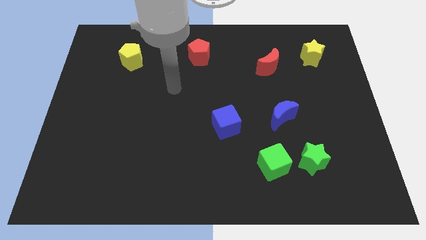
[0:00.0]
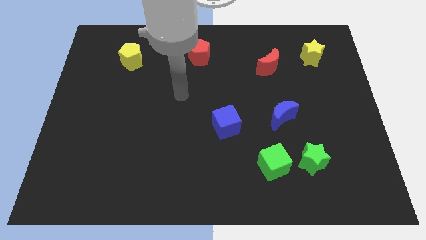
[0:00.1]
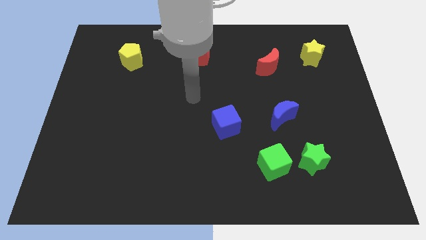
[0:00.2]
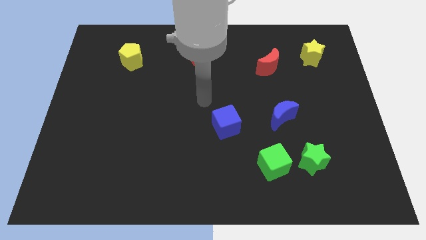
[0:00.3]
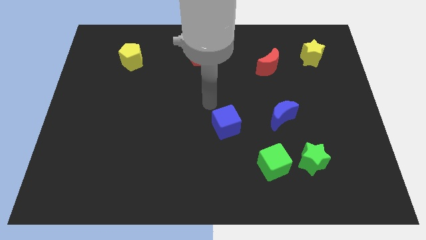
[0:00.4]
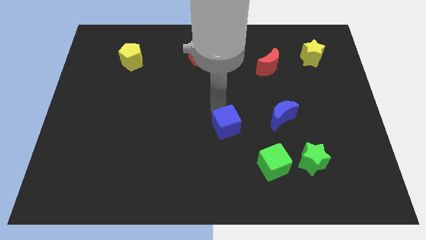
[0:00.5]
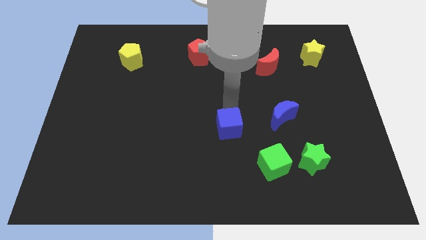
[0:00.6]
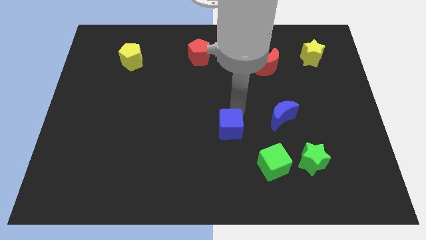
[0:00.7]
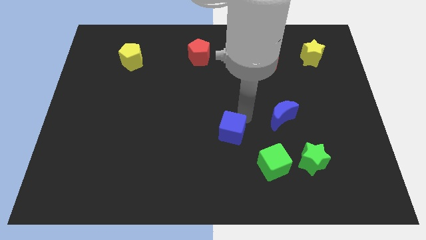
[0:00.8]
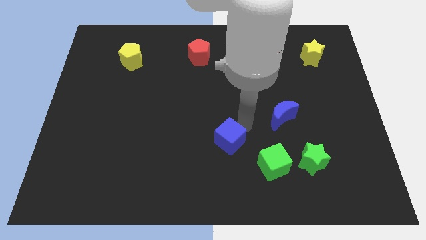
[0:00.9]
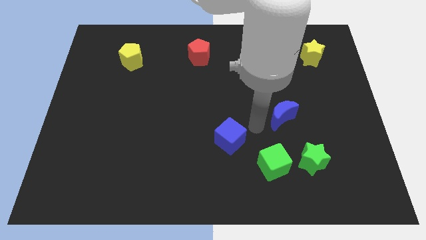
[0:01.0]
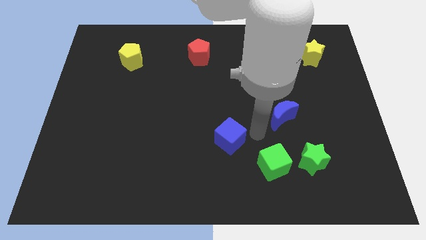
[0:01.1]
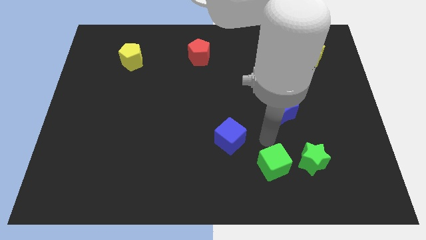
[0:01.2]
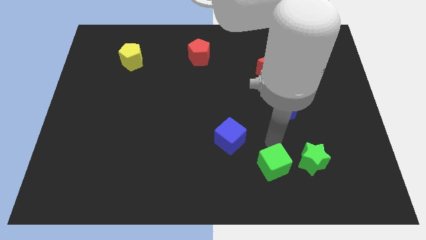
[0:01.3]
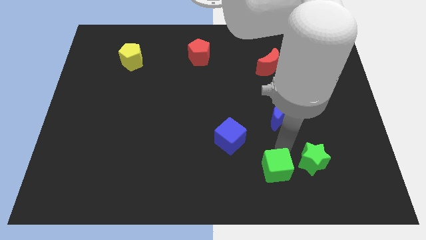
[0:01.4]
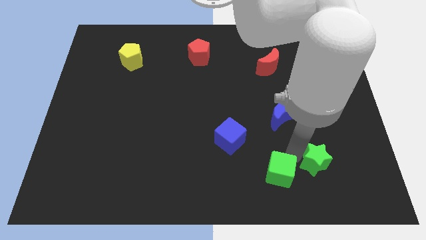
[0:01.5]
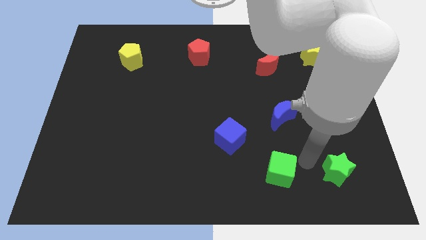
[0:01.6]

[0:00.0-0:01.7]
separate the green cube from the green star

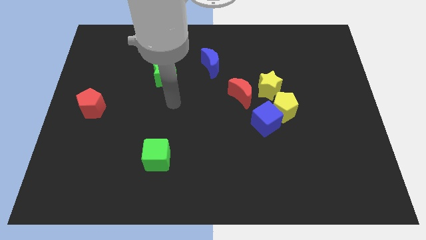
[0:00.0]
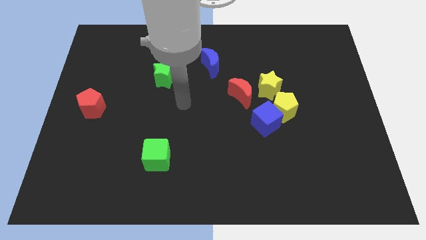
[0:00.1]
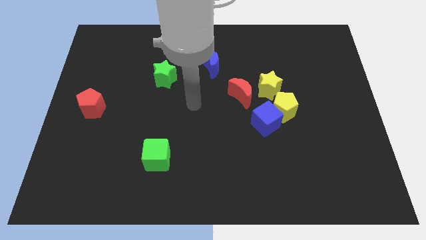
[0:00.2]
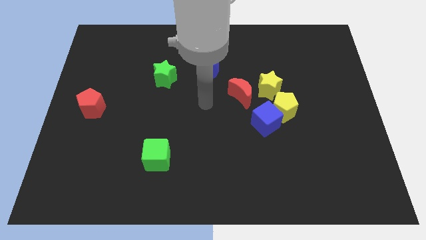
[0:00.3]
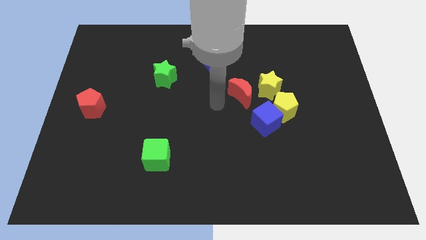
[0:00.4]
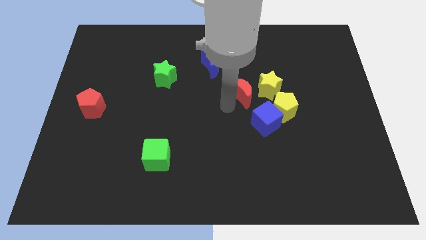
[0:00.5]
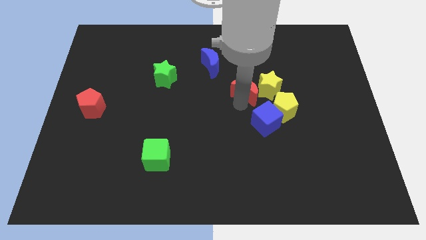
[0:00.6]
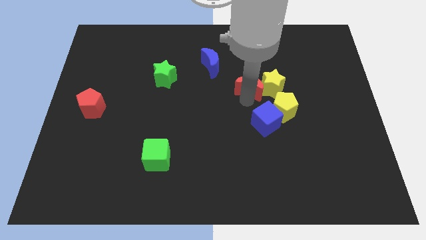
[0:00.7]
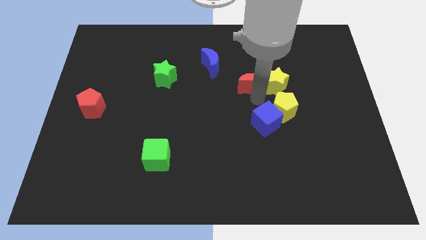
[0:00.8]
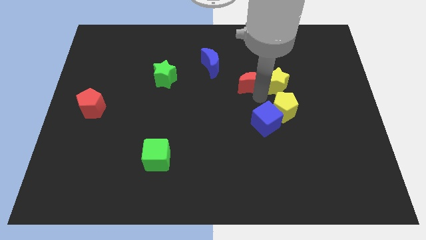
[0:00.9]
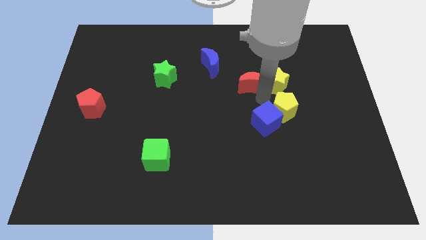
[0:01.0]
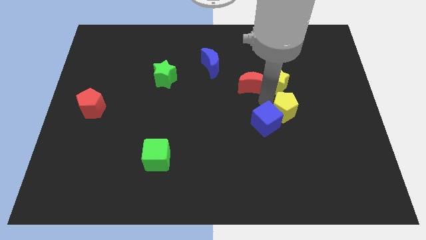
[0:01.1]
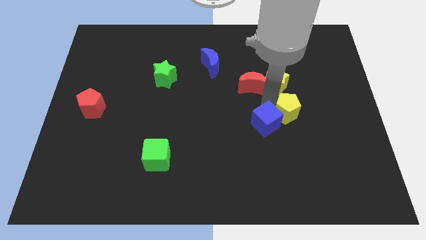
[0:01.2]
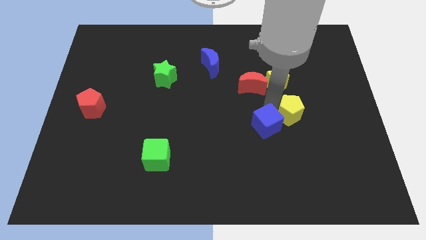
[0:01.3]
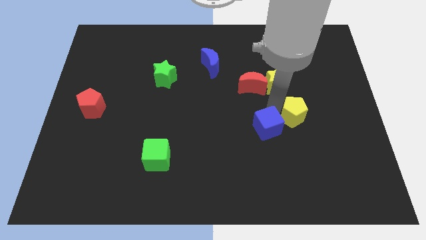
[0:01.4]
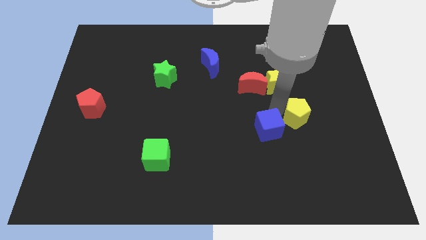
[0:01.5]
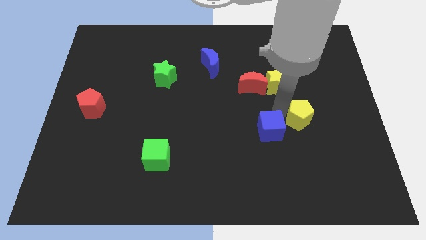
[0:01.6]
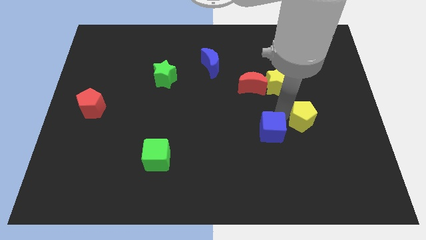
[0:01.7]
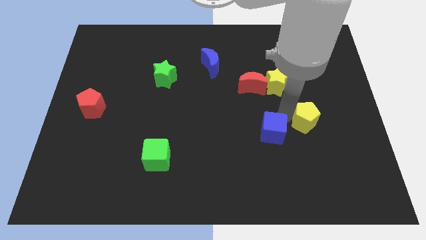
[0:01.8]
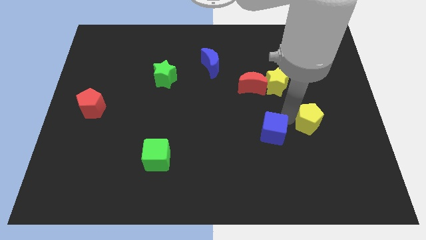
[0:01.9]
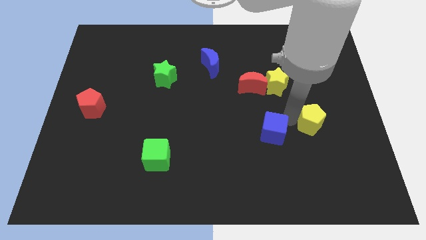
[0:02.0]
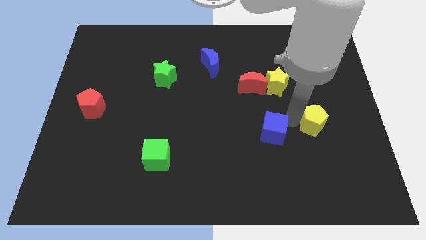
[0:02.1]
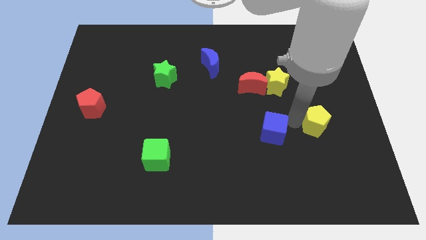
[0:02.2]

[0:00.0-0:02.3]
separate the yellow pentagon from the blue cube and yellow star

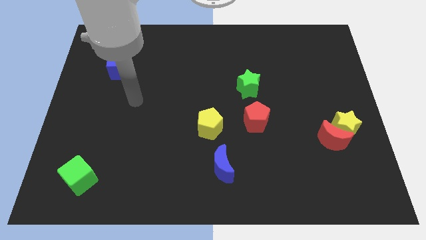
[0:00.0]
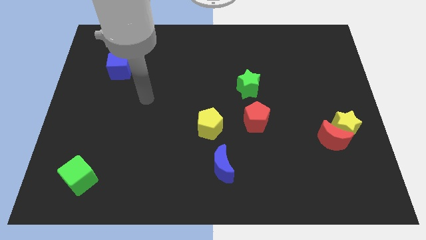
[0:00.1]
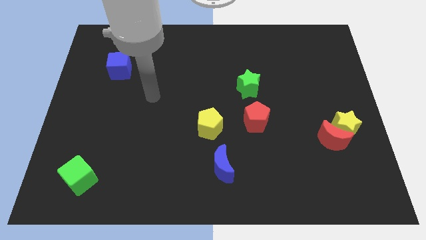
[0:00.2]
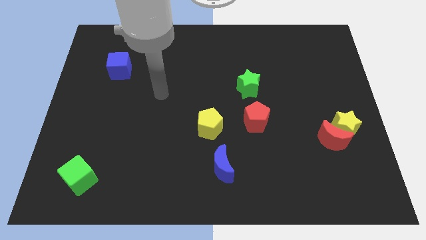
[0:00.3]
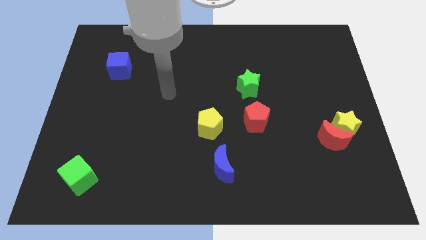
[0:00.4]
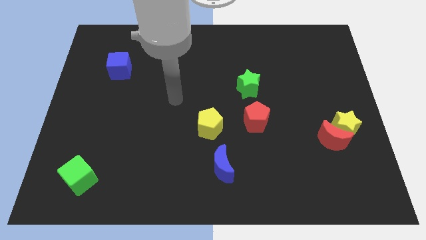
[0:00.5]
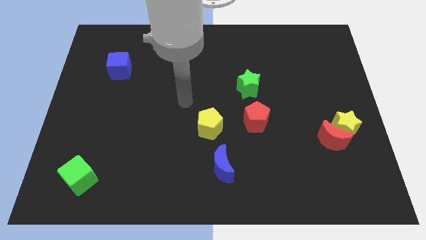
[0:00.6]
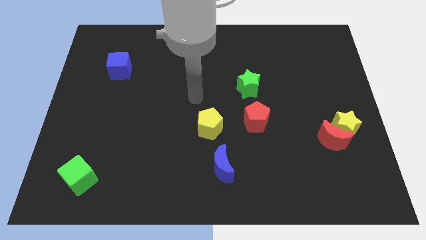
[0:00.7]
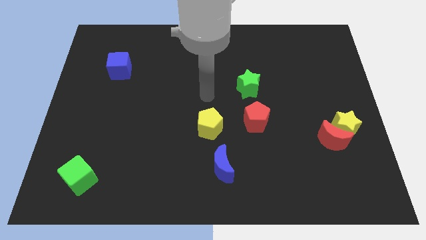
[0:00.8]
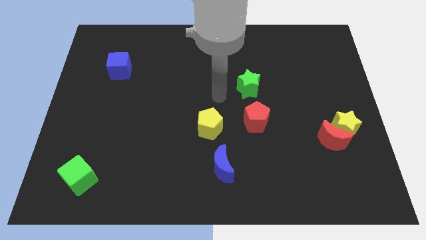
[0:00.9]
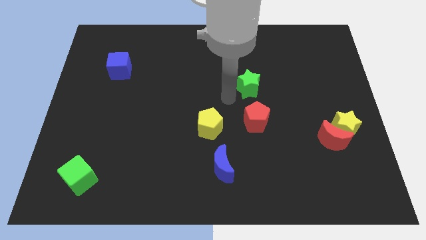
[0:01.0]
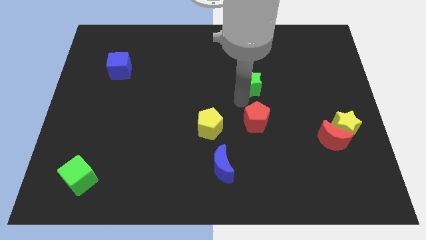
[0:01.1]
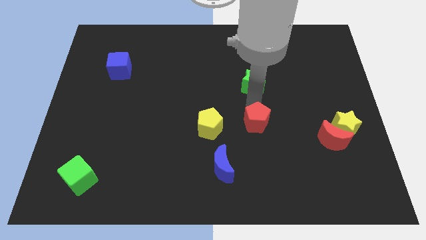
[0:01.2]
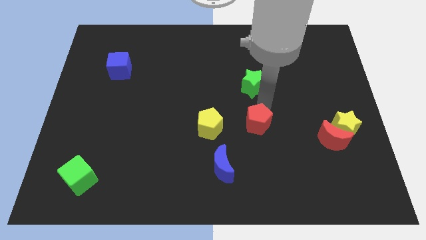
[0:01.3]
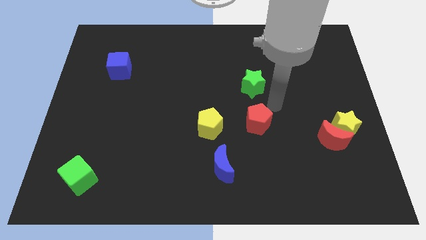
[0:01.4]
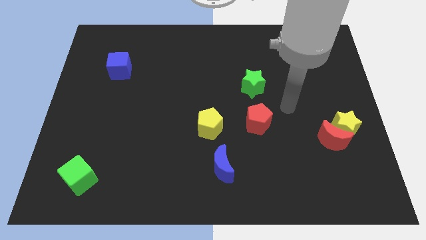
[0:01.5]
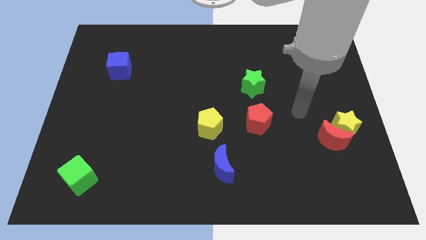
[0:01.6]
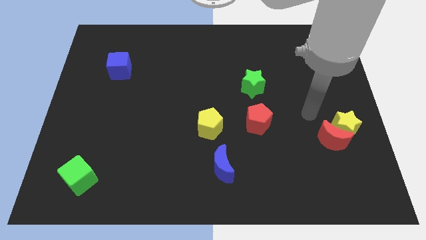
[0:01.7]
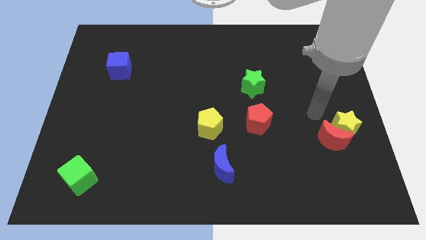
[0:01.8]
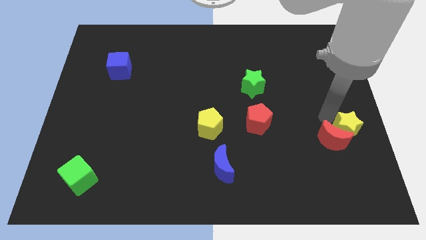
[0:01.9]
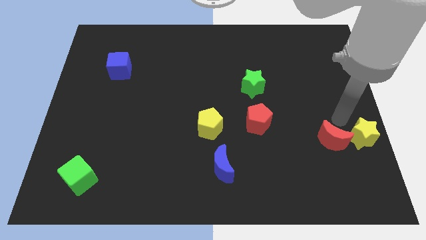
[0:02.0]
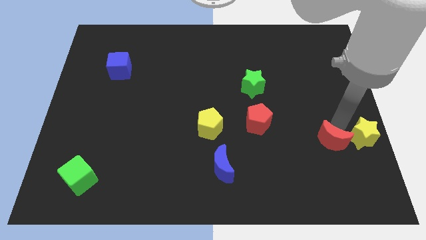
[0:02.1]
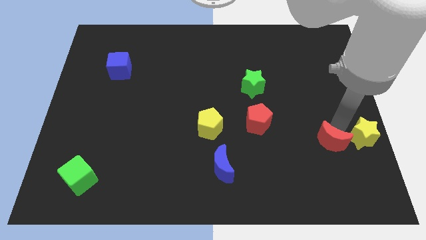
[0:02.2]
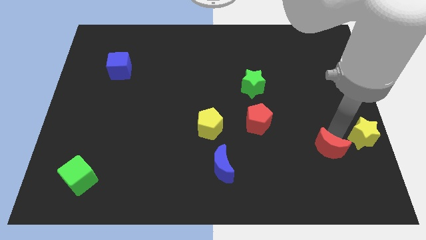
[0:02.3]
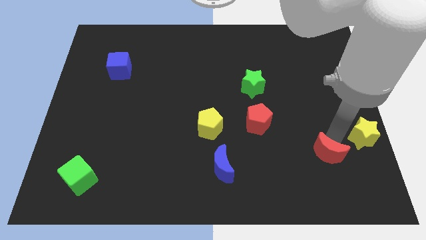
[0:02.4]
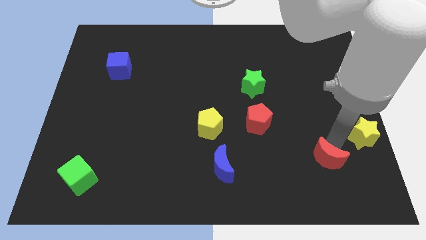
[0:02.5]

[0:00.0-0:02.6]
move the red moon away from the yellow star

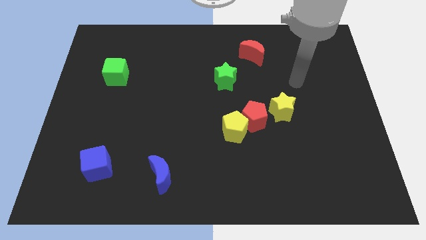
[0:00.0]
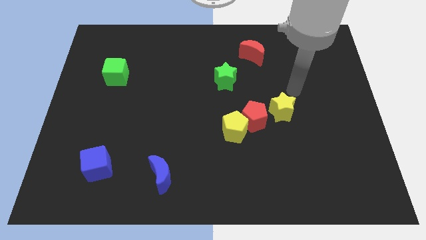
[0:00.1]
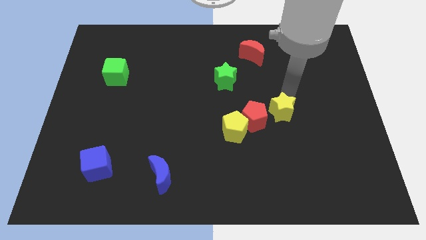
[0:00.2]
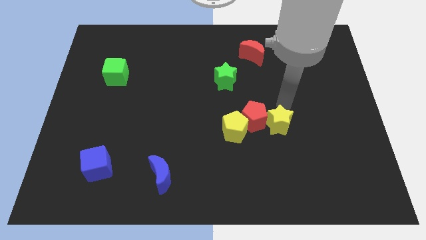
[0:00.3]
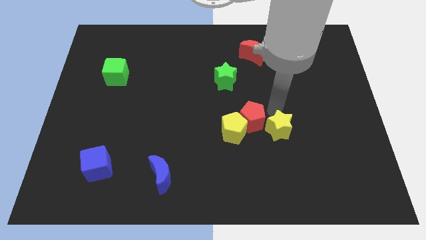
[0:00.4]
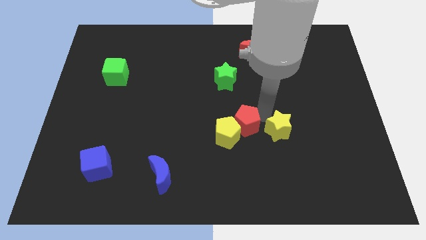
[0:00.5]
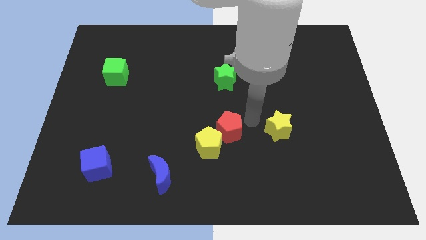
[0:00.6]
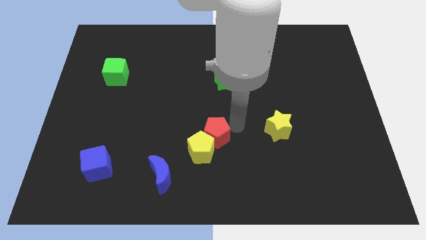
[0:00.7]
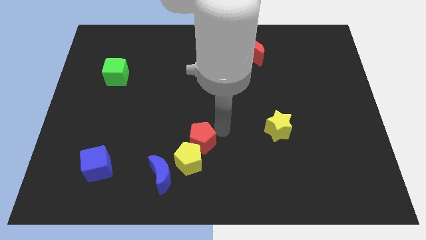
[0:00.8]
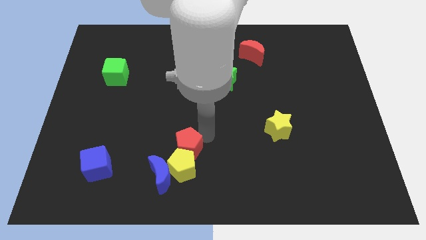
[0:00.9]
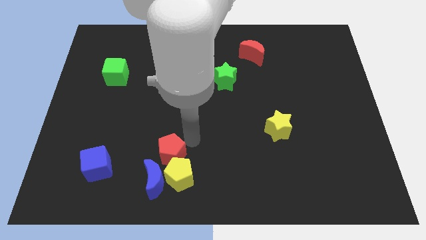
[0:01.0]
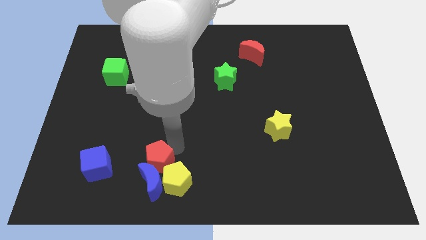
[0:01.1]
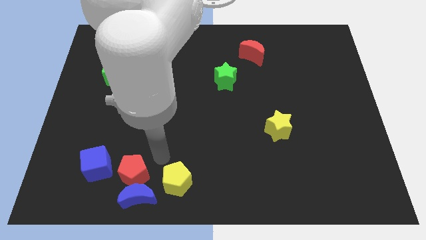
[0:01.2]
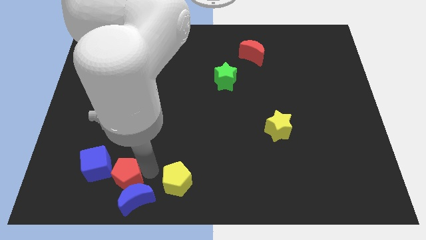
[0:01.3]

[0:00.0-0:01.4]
pull the yellow pentagon apart from the red pentagon

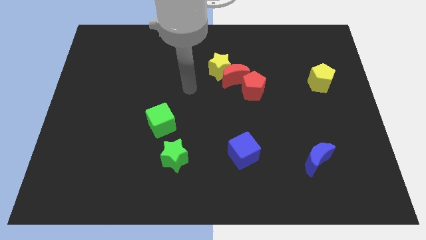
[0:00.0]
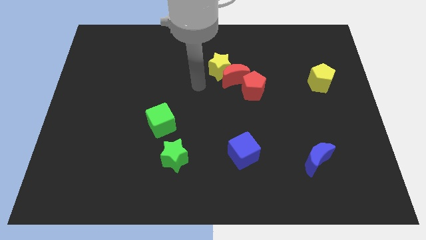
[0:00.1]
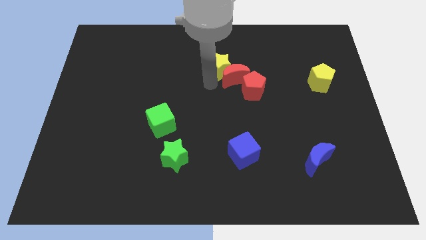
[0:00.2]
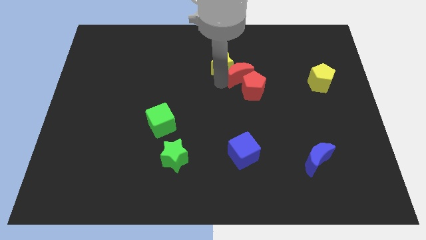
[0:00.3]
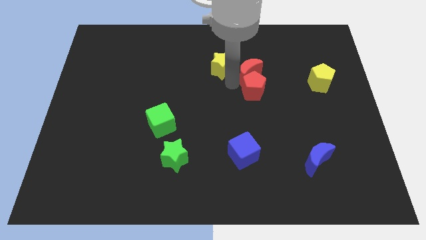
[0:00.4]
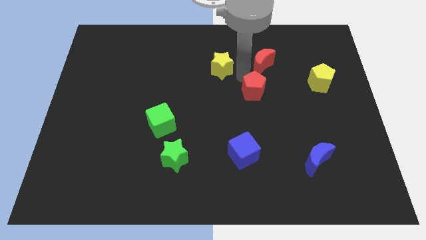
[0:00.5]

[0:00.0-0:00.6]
pull the yellow star apart from the red moon

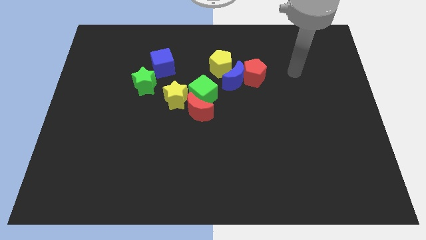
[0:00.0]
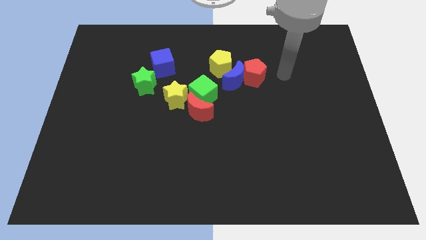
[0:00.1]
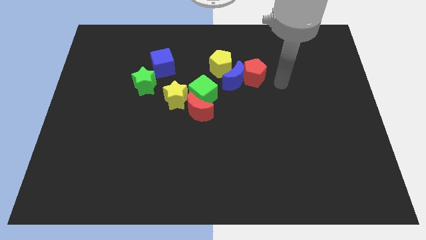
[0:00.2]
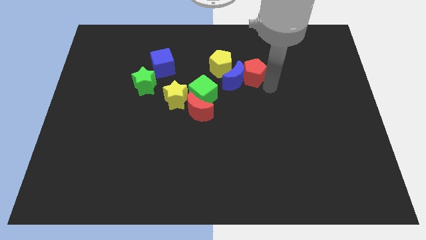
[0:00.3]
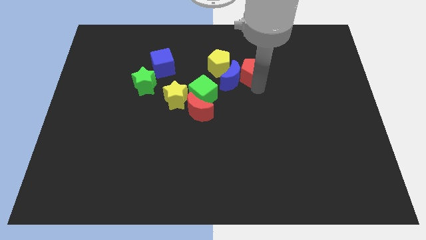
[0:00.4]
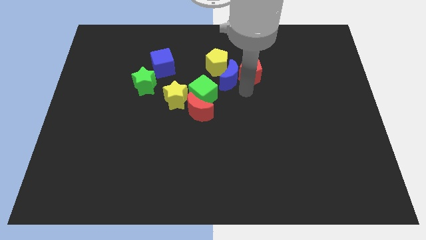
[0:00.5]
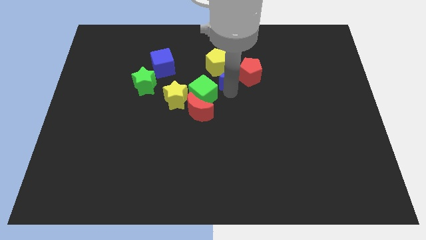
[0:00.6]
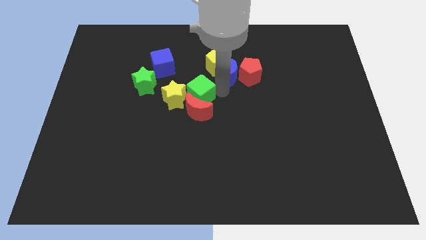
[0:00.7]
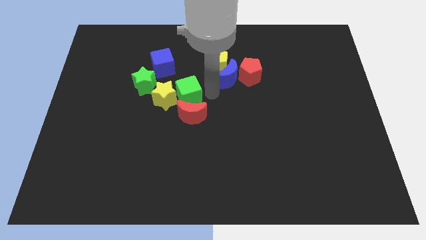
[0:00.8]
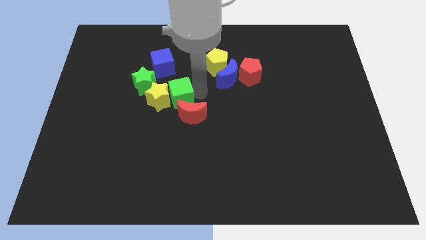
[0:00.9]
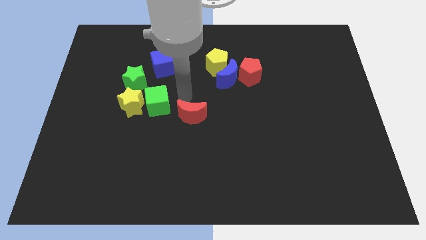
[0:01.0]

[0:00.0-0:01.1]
move the red moon away from the green cube and yellow star
